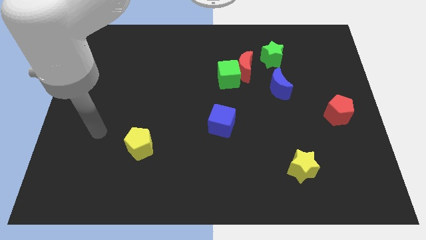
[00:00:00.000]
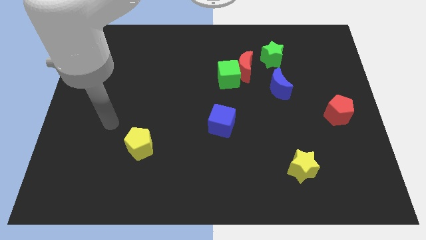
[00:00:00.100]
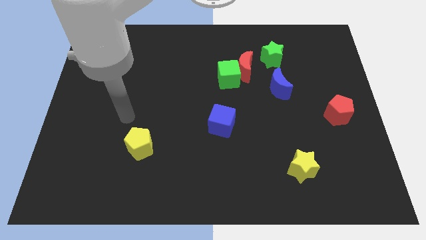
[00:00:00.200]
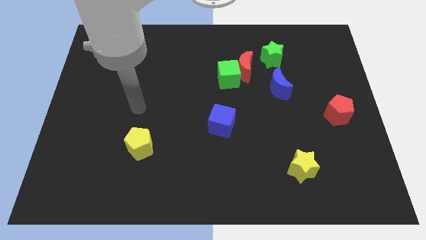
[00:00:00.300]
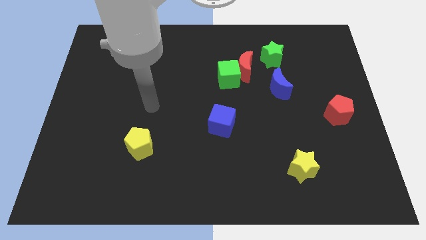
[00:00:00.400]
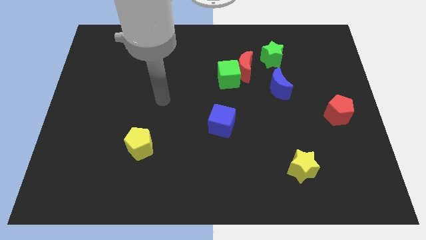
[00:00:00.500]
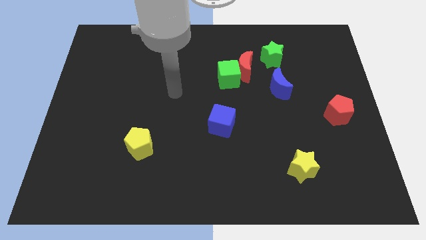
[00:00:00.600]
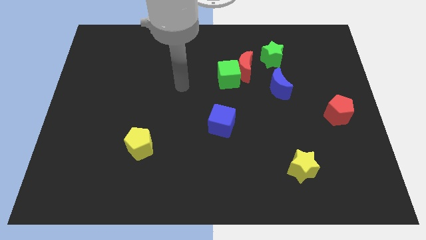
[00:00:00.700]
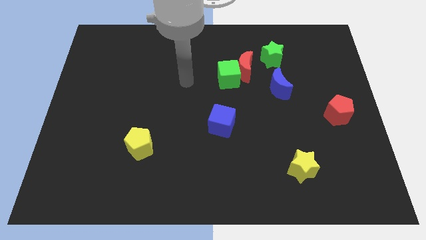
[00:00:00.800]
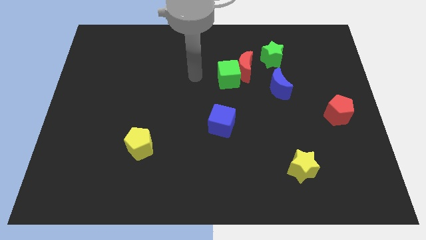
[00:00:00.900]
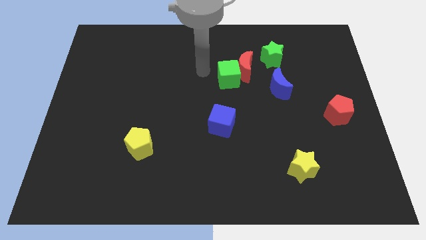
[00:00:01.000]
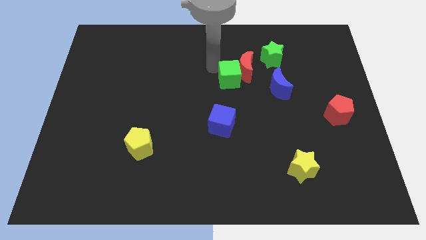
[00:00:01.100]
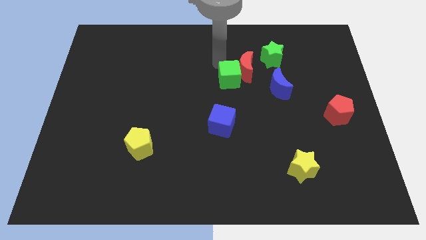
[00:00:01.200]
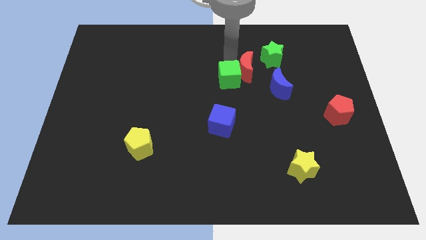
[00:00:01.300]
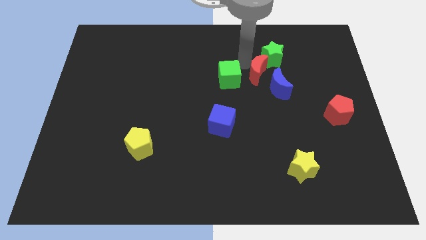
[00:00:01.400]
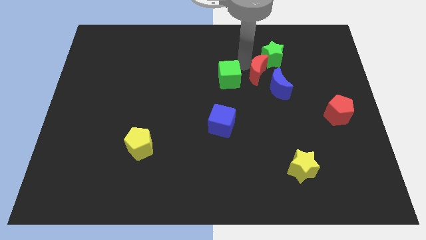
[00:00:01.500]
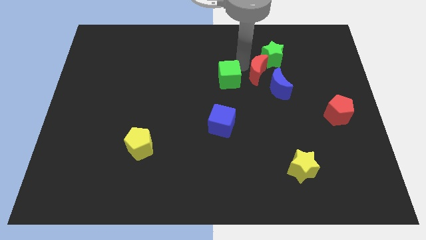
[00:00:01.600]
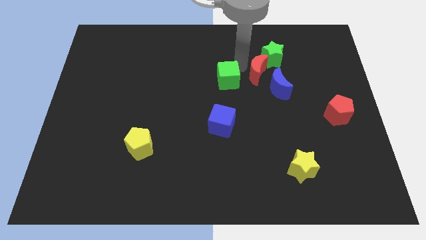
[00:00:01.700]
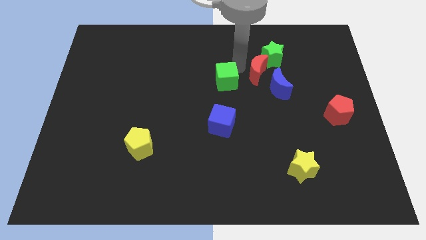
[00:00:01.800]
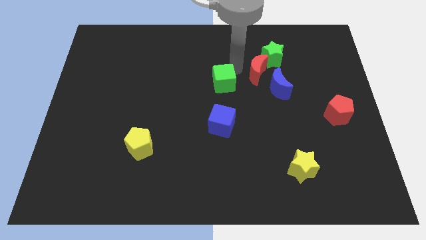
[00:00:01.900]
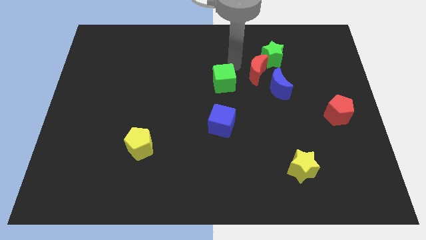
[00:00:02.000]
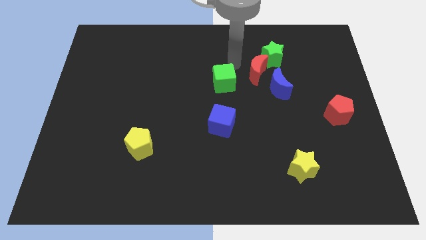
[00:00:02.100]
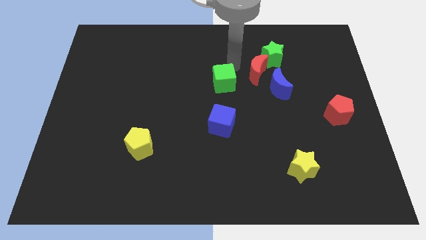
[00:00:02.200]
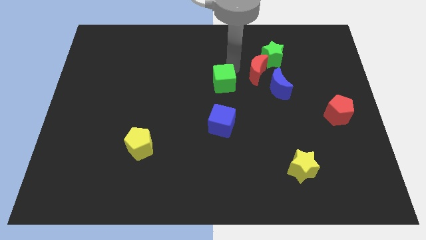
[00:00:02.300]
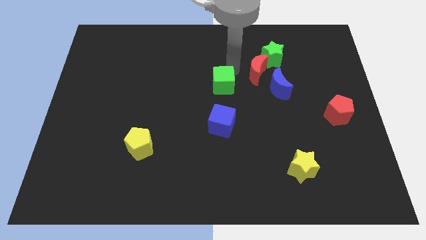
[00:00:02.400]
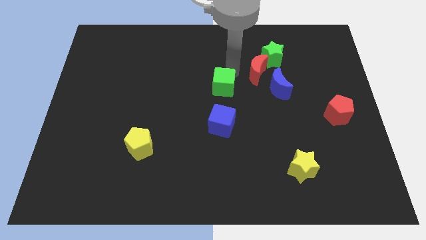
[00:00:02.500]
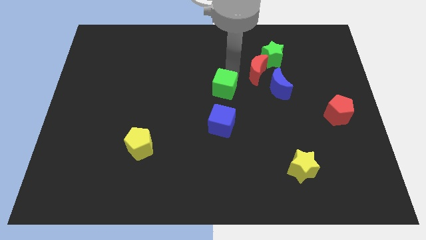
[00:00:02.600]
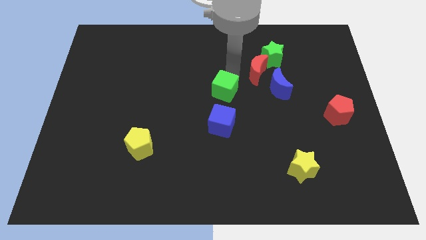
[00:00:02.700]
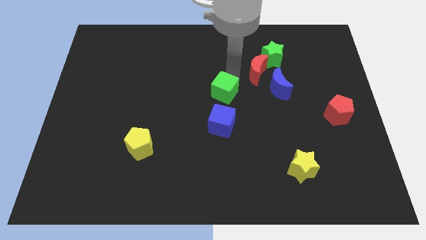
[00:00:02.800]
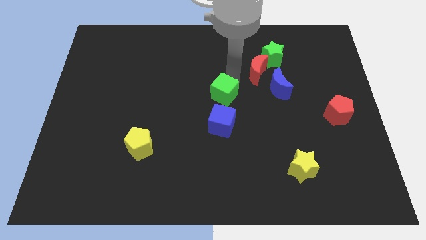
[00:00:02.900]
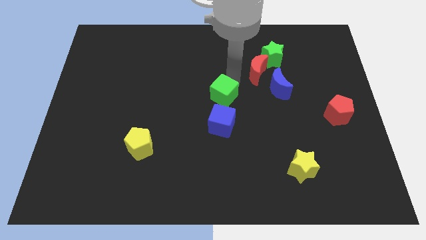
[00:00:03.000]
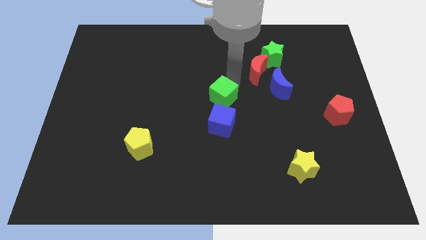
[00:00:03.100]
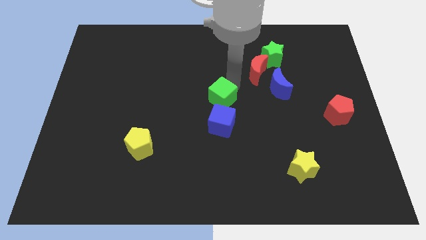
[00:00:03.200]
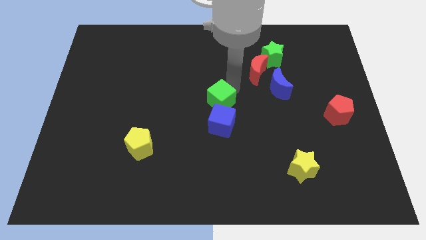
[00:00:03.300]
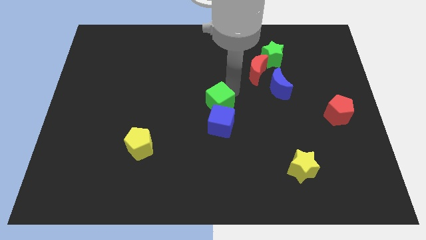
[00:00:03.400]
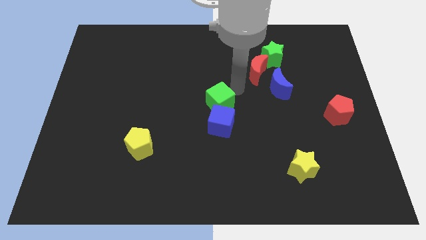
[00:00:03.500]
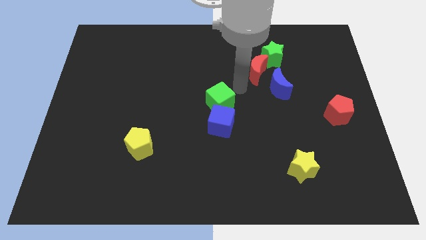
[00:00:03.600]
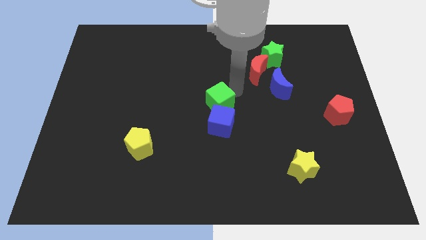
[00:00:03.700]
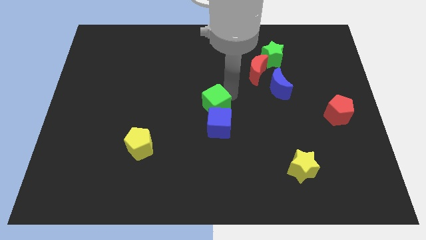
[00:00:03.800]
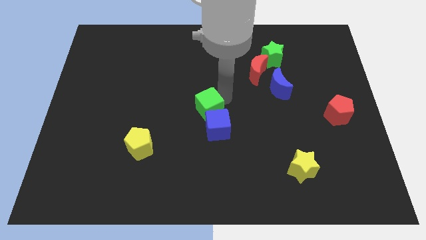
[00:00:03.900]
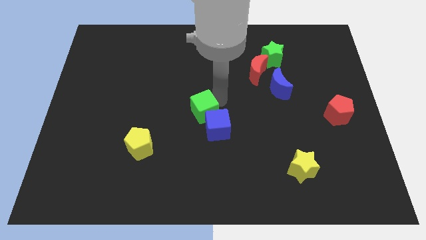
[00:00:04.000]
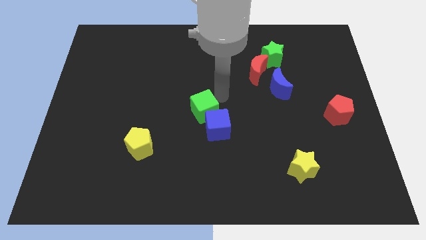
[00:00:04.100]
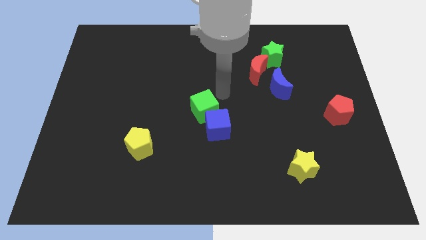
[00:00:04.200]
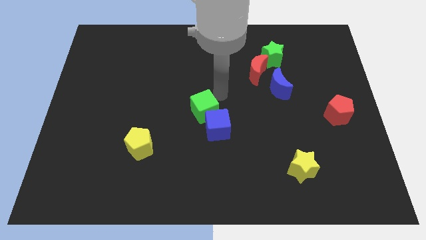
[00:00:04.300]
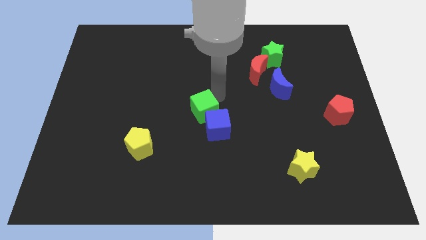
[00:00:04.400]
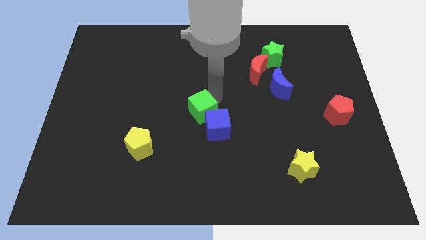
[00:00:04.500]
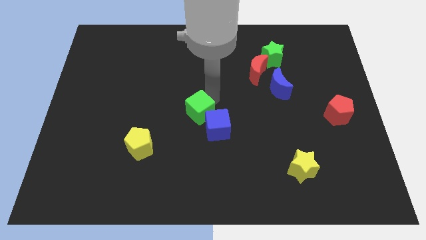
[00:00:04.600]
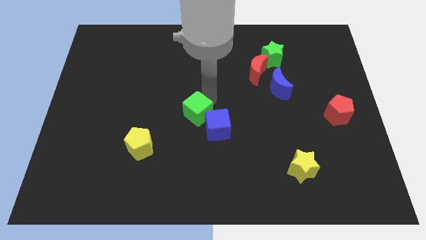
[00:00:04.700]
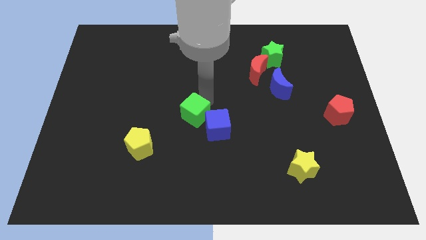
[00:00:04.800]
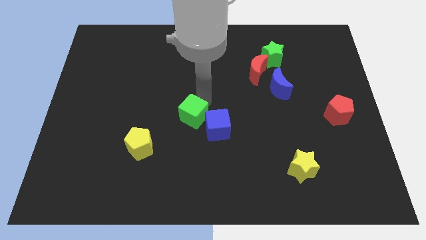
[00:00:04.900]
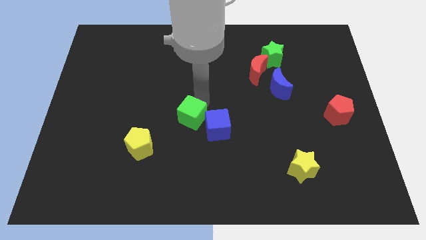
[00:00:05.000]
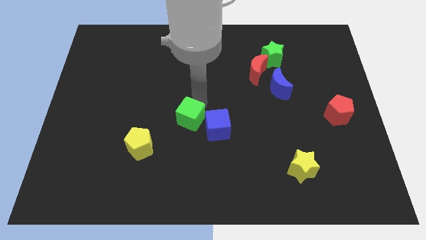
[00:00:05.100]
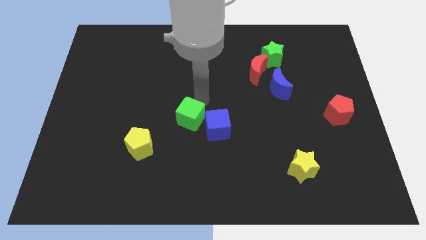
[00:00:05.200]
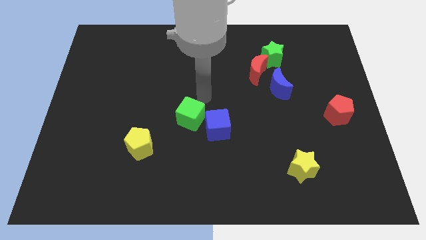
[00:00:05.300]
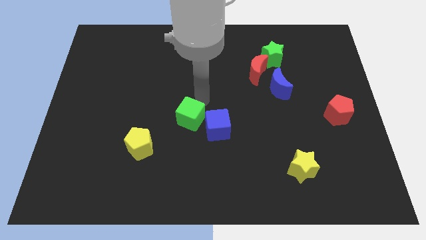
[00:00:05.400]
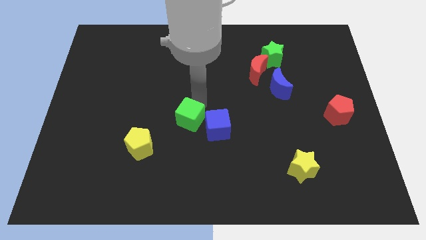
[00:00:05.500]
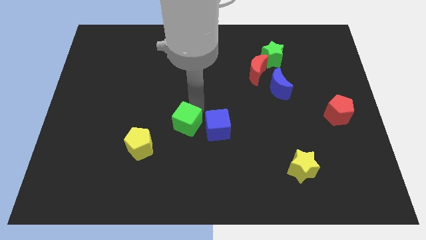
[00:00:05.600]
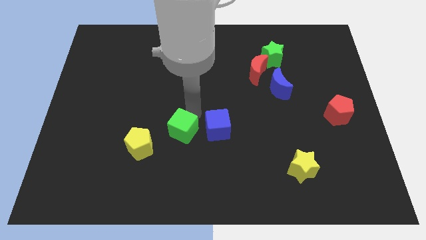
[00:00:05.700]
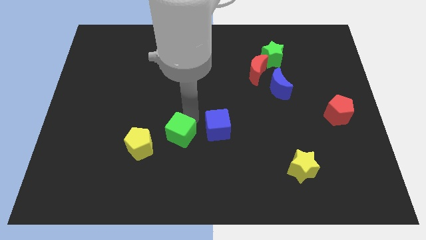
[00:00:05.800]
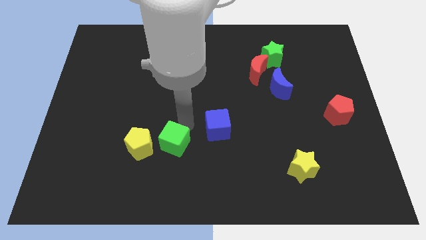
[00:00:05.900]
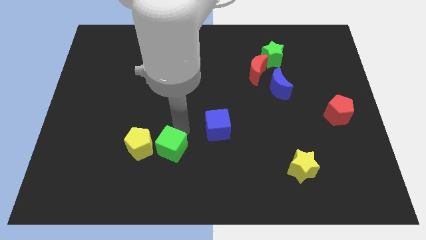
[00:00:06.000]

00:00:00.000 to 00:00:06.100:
put the green cube to the bottom right of the yellow pentagon

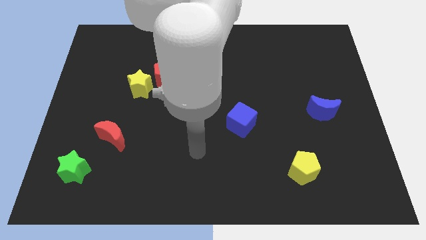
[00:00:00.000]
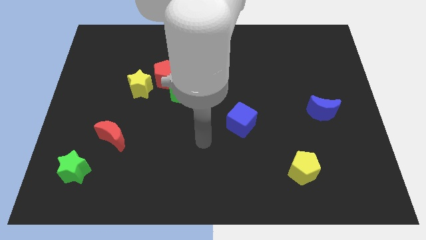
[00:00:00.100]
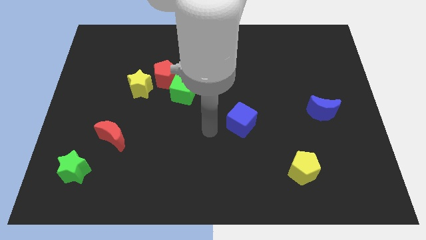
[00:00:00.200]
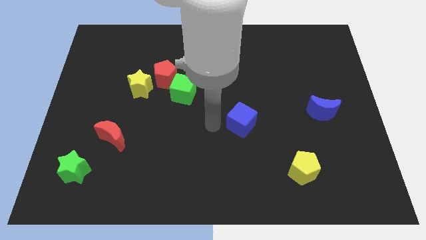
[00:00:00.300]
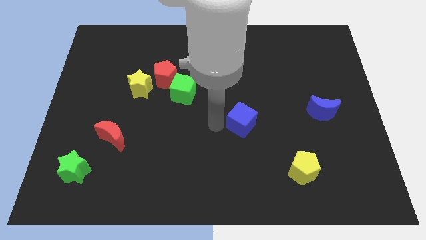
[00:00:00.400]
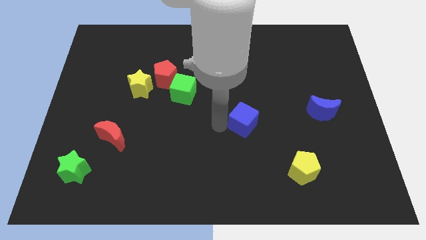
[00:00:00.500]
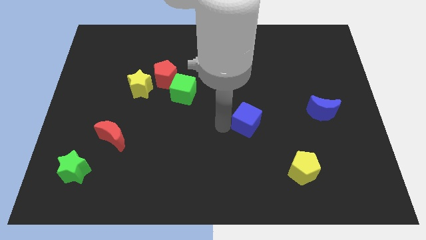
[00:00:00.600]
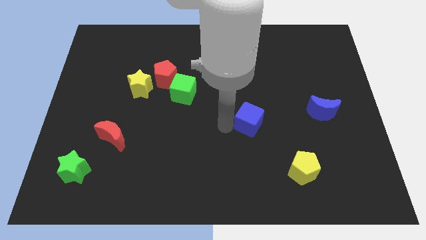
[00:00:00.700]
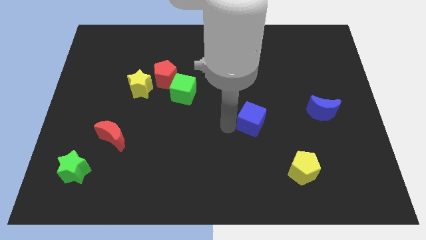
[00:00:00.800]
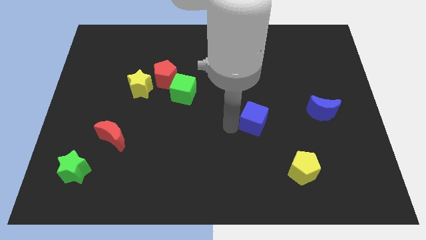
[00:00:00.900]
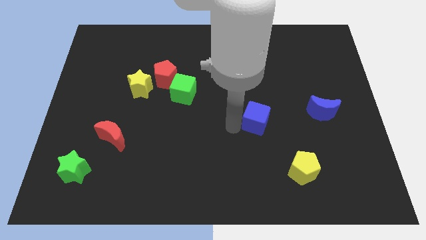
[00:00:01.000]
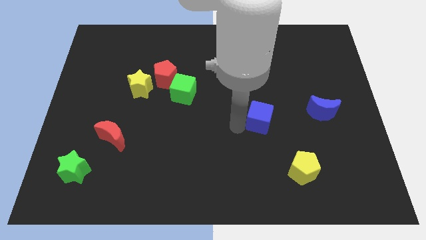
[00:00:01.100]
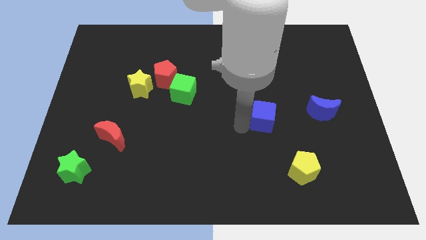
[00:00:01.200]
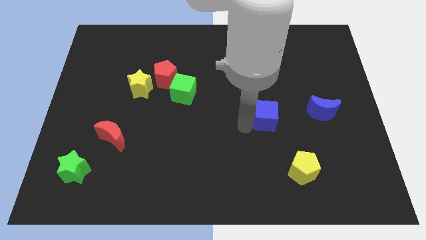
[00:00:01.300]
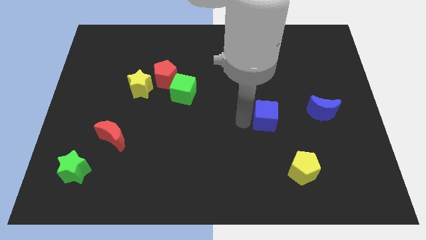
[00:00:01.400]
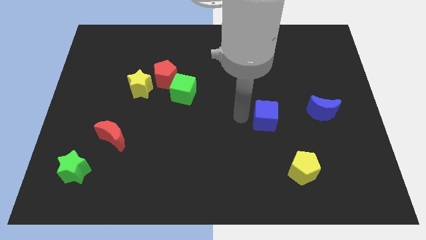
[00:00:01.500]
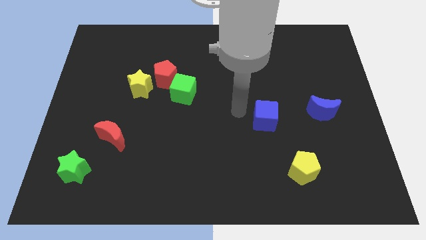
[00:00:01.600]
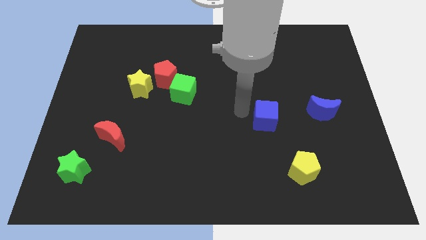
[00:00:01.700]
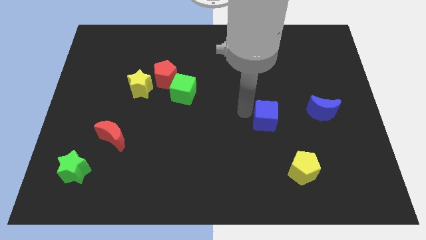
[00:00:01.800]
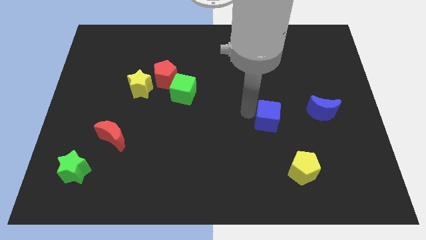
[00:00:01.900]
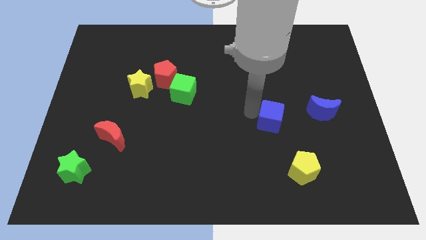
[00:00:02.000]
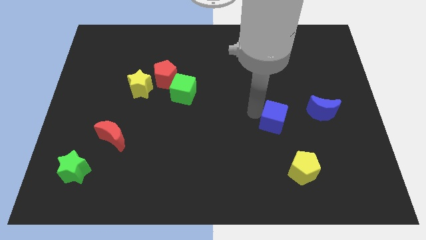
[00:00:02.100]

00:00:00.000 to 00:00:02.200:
move the blue cube to the top of the yellow pentagon
